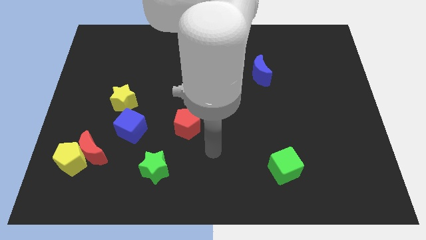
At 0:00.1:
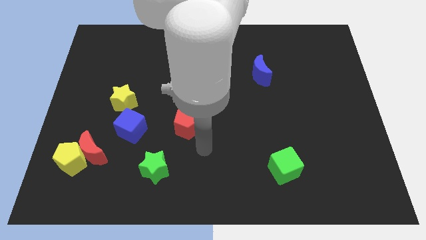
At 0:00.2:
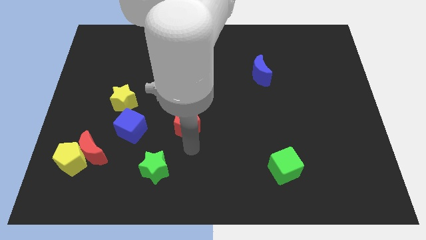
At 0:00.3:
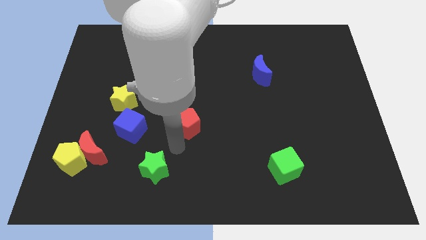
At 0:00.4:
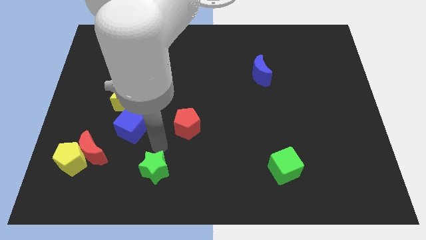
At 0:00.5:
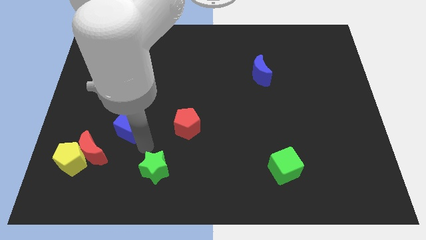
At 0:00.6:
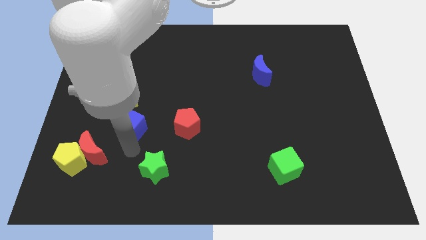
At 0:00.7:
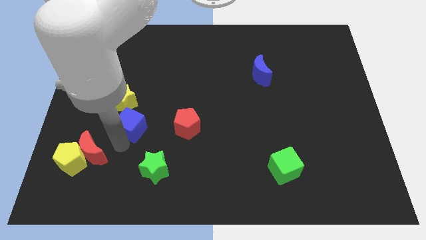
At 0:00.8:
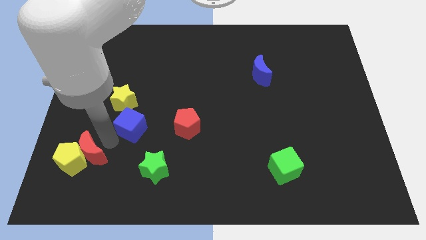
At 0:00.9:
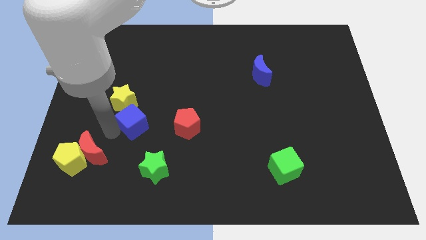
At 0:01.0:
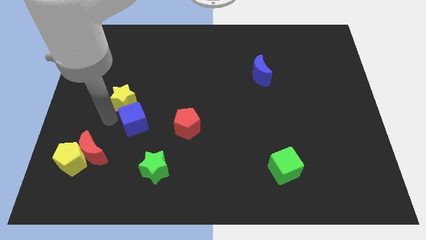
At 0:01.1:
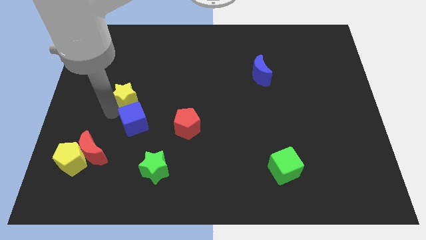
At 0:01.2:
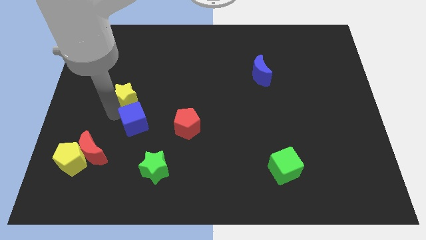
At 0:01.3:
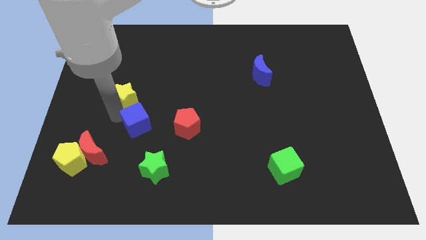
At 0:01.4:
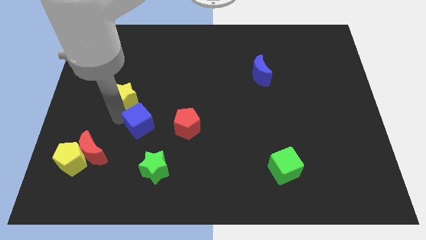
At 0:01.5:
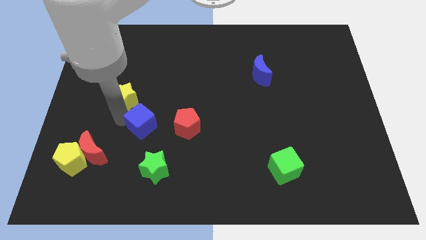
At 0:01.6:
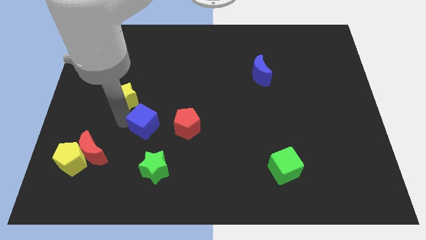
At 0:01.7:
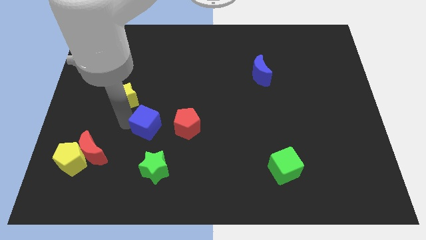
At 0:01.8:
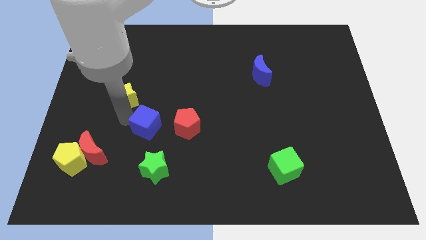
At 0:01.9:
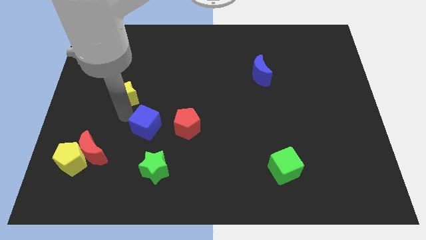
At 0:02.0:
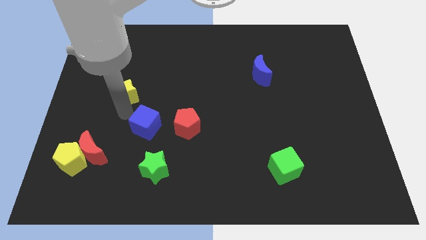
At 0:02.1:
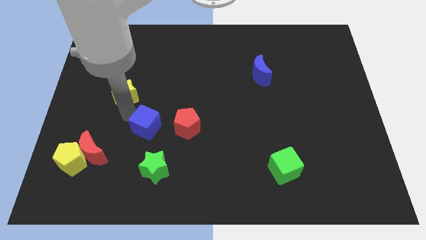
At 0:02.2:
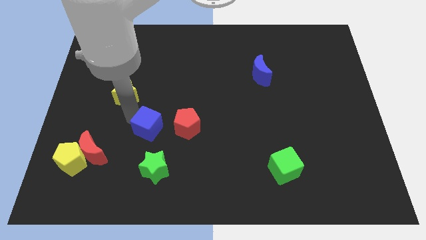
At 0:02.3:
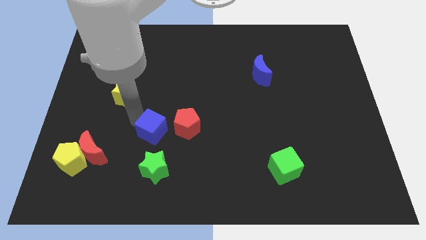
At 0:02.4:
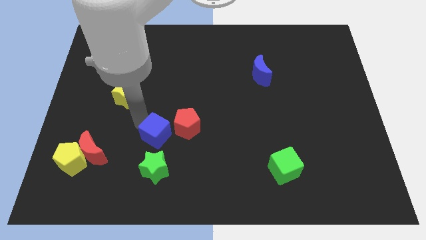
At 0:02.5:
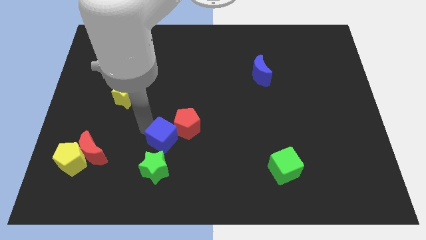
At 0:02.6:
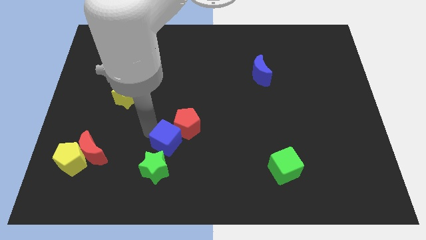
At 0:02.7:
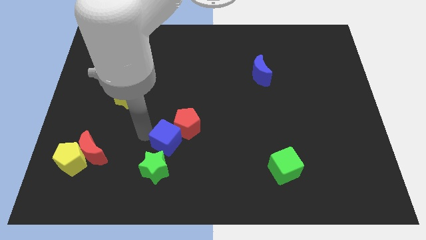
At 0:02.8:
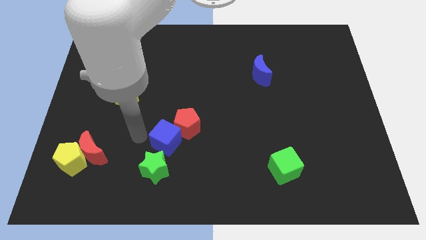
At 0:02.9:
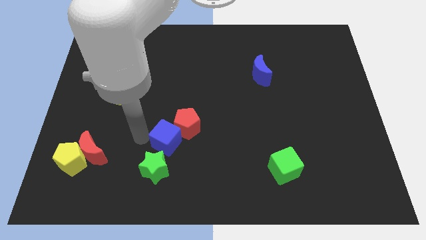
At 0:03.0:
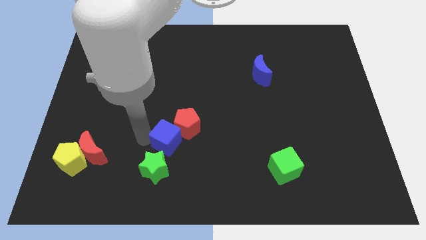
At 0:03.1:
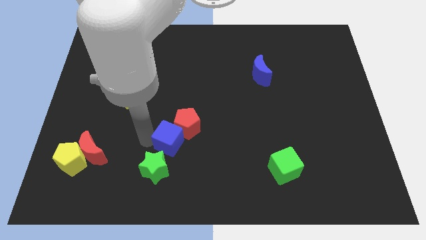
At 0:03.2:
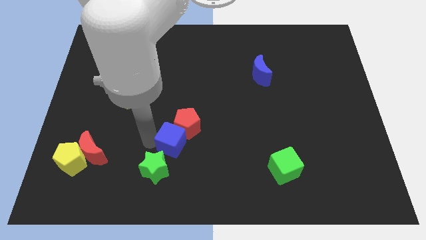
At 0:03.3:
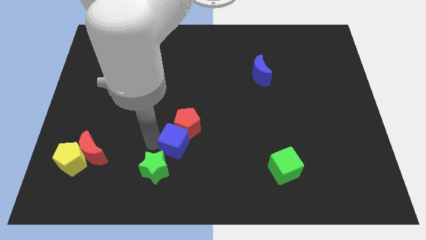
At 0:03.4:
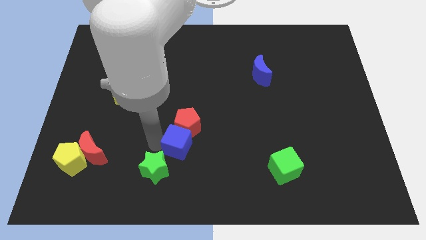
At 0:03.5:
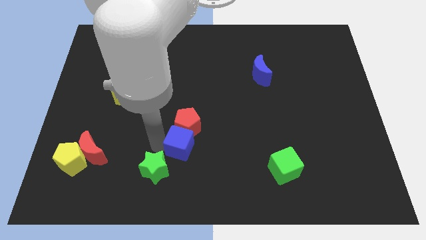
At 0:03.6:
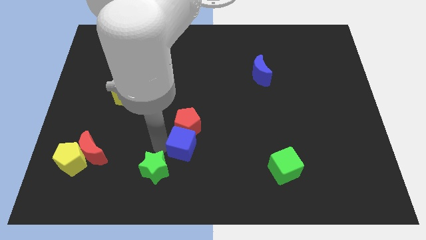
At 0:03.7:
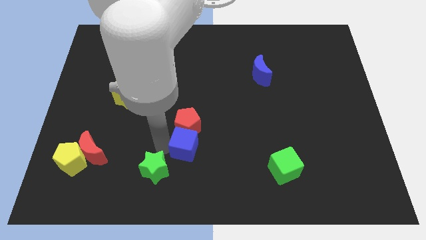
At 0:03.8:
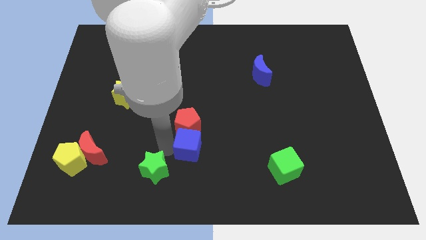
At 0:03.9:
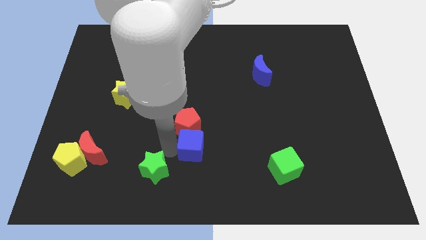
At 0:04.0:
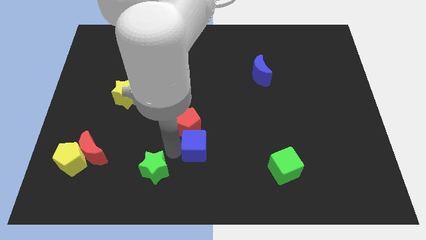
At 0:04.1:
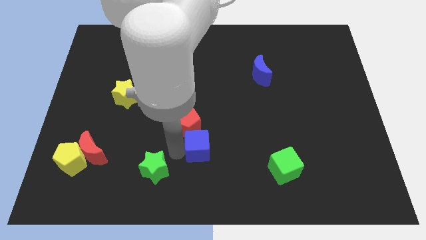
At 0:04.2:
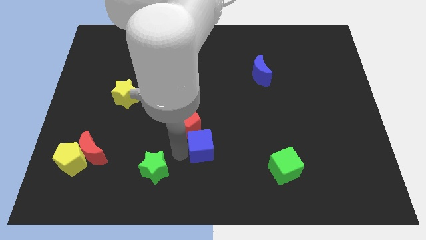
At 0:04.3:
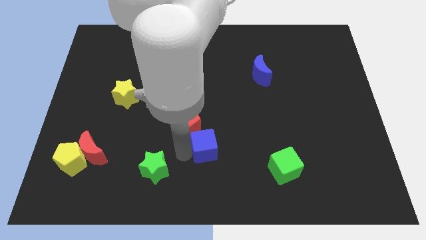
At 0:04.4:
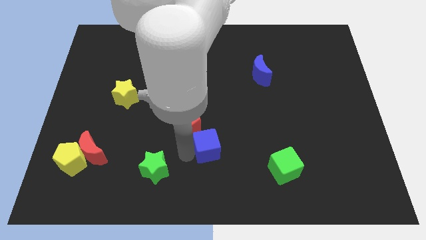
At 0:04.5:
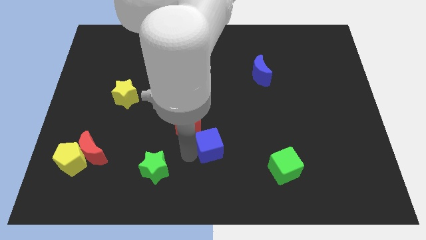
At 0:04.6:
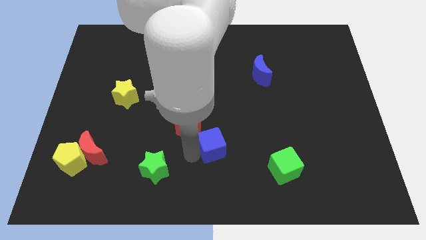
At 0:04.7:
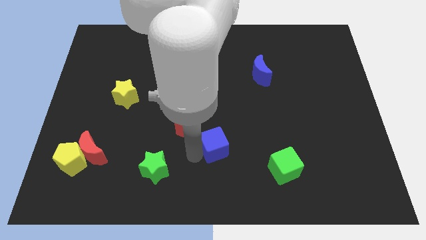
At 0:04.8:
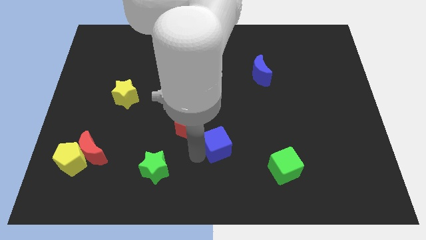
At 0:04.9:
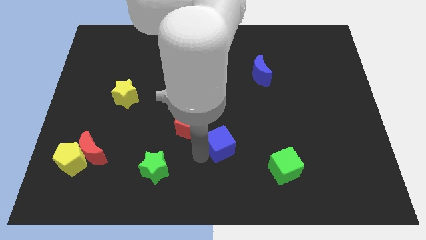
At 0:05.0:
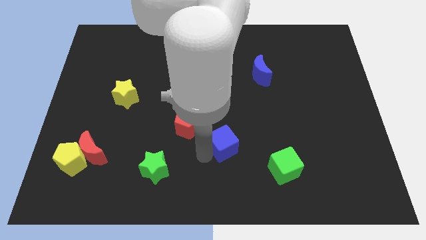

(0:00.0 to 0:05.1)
slide the blue cube right

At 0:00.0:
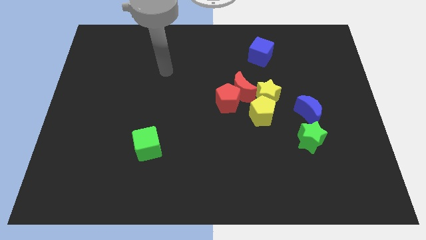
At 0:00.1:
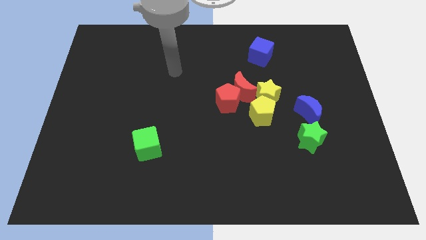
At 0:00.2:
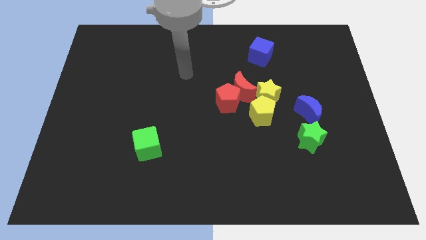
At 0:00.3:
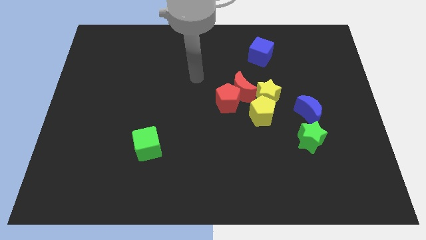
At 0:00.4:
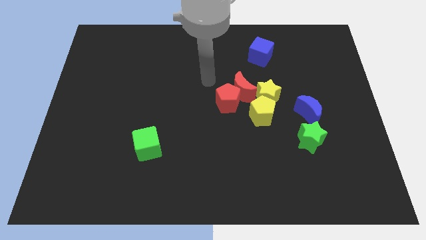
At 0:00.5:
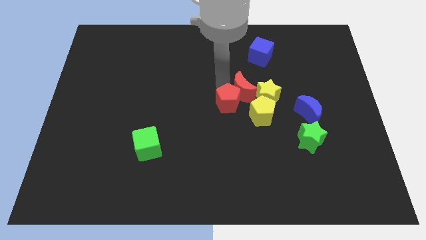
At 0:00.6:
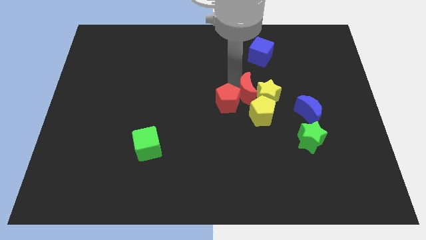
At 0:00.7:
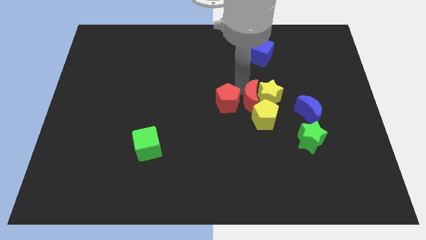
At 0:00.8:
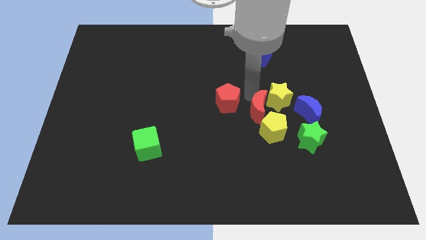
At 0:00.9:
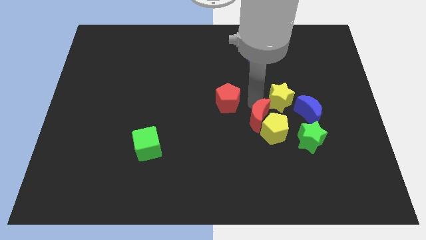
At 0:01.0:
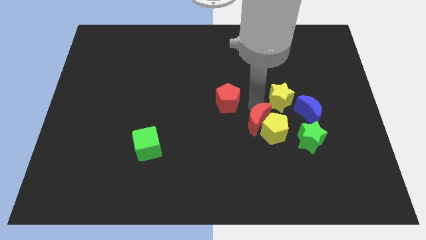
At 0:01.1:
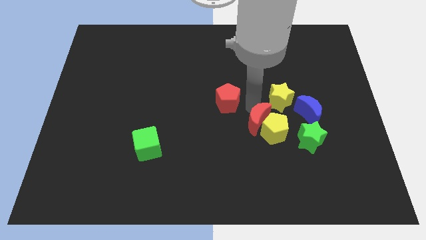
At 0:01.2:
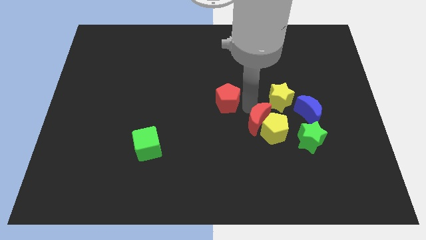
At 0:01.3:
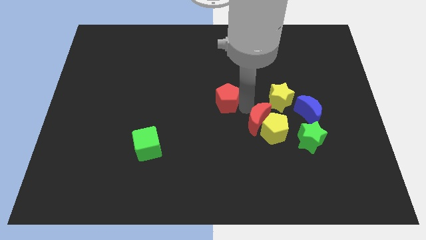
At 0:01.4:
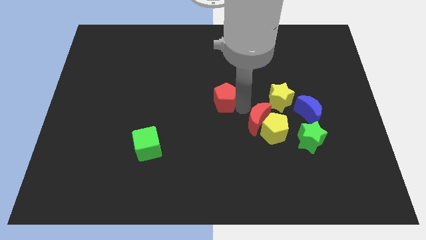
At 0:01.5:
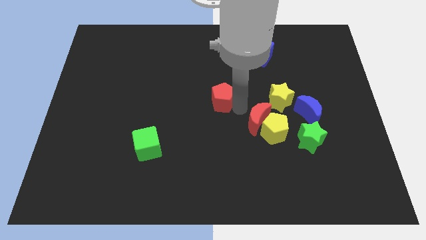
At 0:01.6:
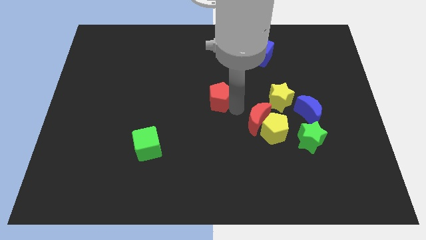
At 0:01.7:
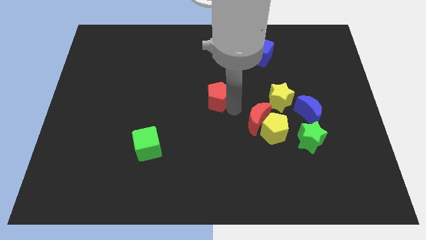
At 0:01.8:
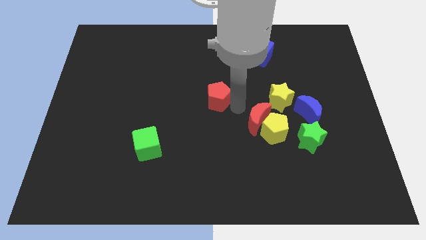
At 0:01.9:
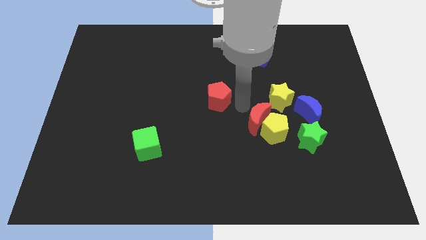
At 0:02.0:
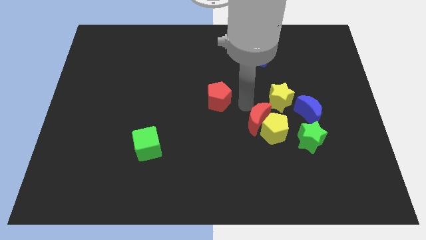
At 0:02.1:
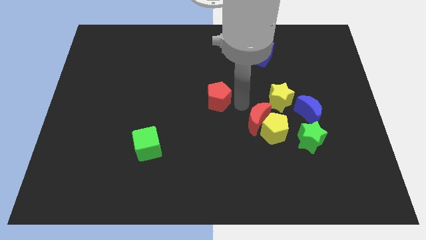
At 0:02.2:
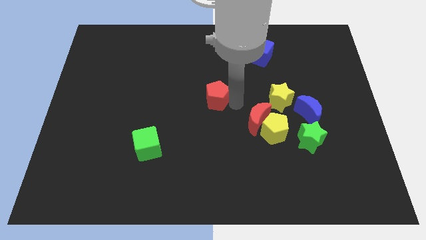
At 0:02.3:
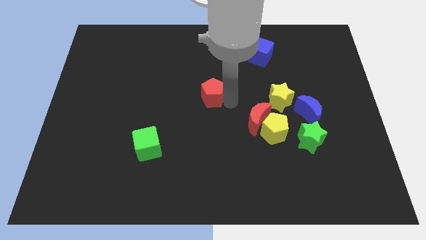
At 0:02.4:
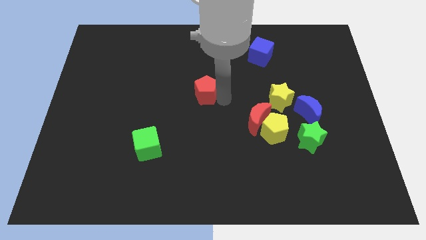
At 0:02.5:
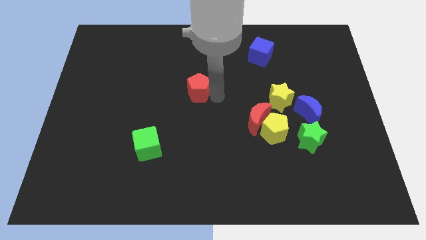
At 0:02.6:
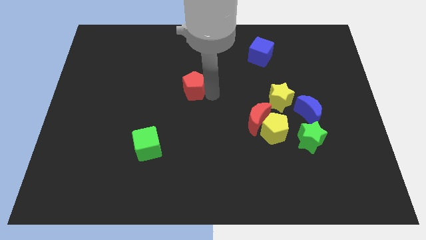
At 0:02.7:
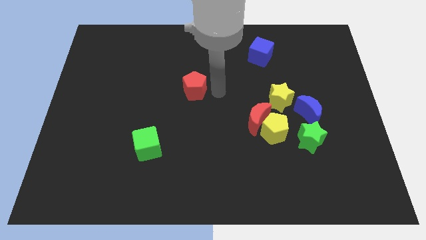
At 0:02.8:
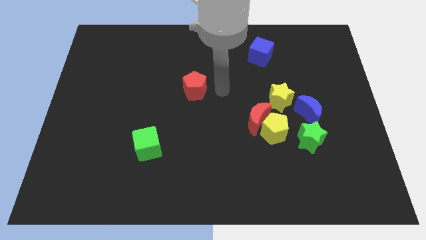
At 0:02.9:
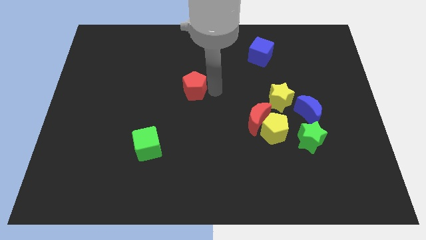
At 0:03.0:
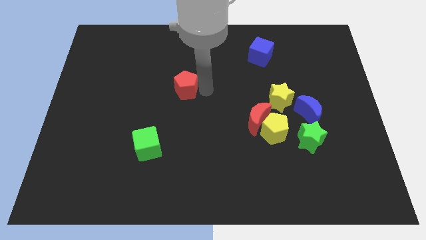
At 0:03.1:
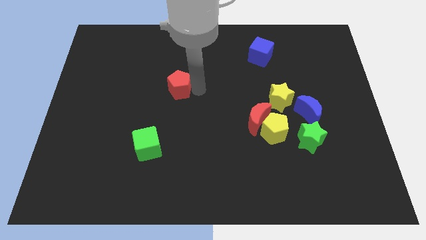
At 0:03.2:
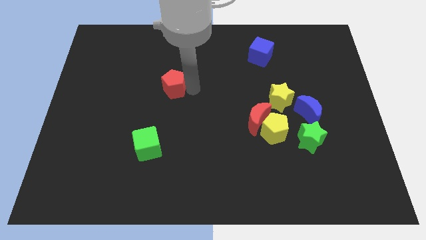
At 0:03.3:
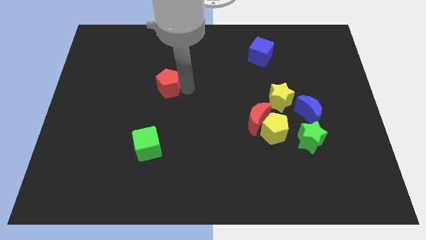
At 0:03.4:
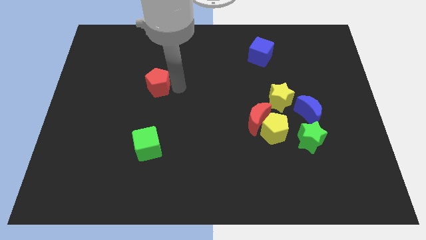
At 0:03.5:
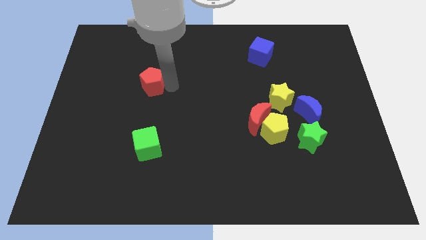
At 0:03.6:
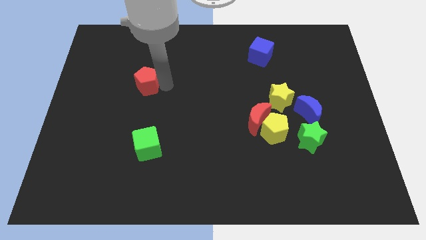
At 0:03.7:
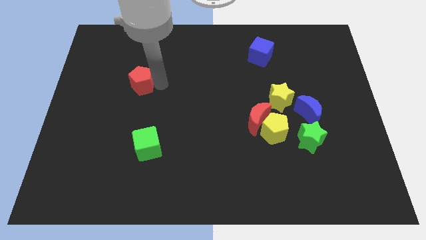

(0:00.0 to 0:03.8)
move the red pentagon to the left
